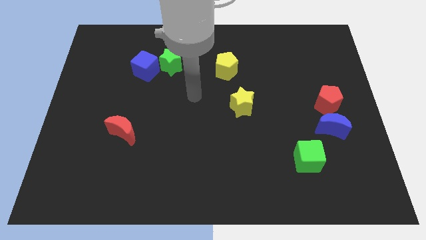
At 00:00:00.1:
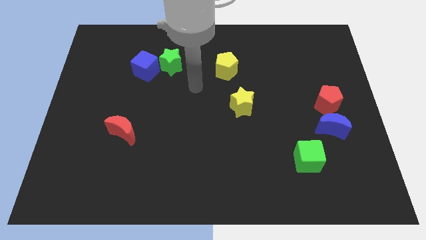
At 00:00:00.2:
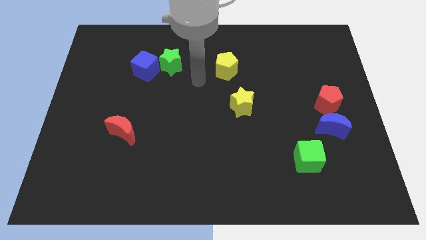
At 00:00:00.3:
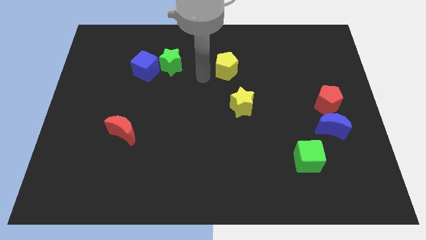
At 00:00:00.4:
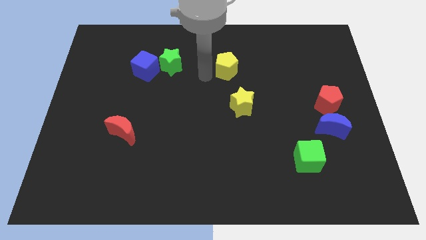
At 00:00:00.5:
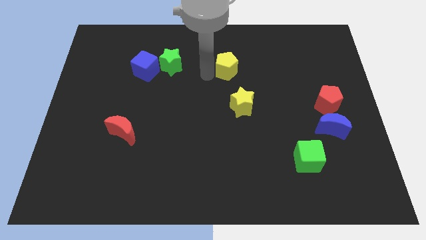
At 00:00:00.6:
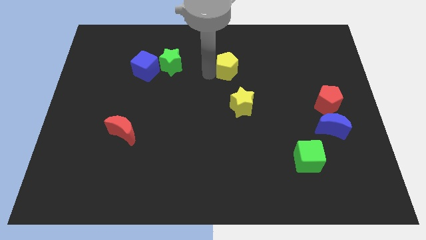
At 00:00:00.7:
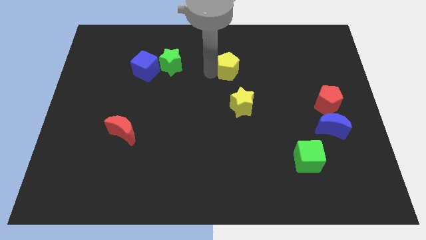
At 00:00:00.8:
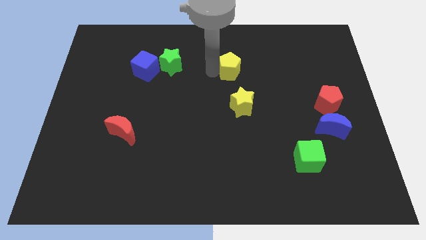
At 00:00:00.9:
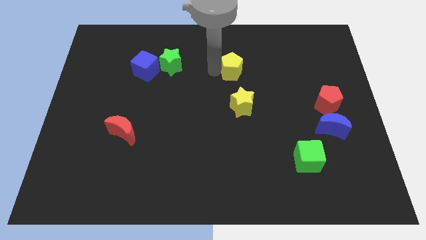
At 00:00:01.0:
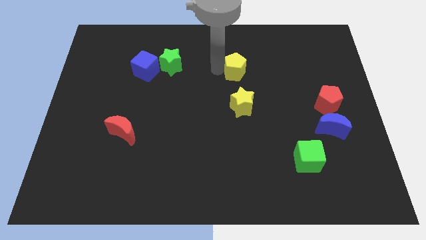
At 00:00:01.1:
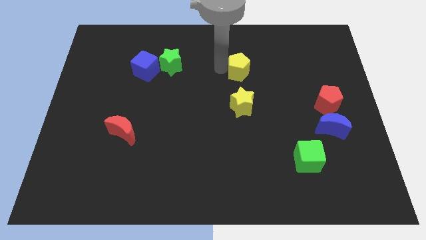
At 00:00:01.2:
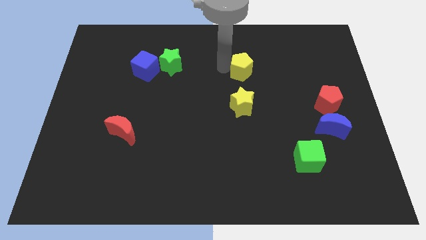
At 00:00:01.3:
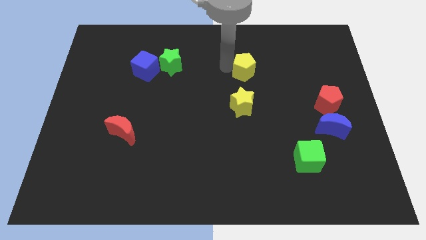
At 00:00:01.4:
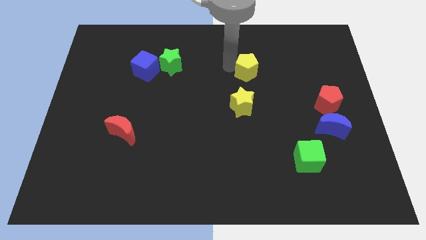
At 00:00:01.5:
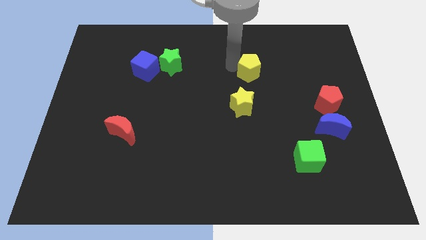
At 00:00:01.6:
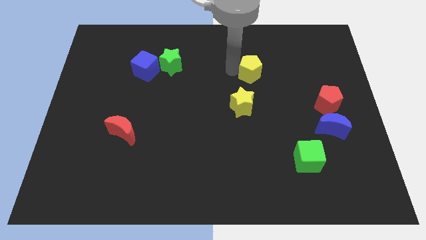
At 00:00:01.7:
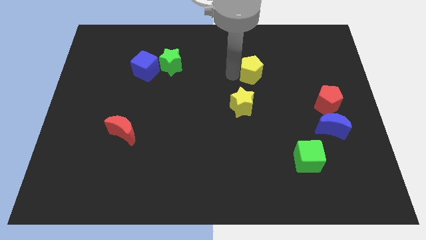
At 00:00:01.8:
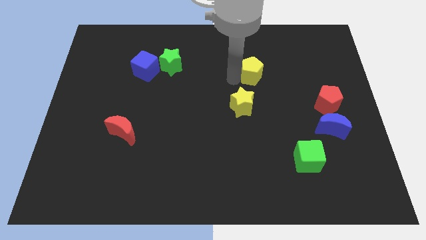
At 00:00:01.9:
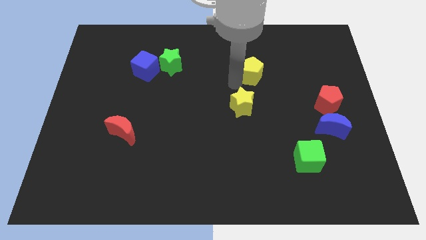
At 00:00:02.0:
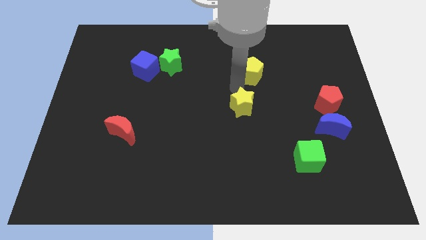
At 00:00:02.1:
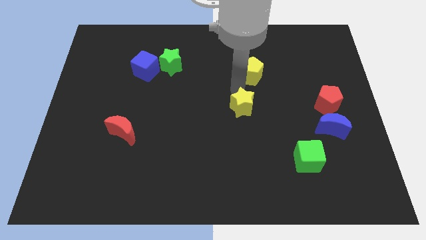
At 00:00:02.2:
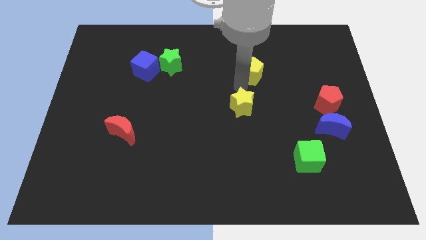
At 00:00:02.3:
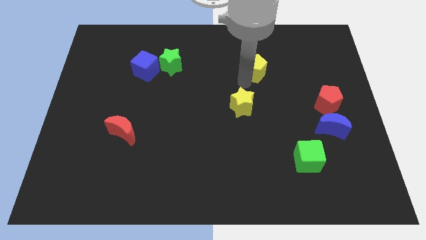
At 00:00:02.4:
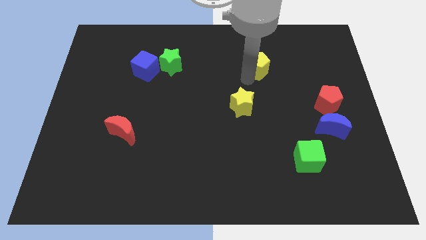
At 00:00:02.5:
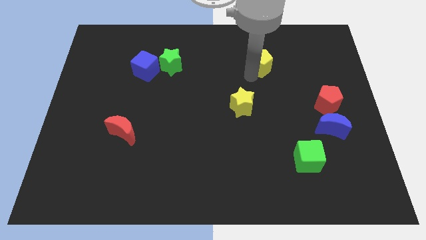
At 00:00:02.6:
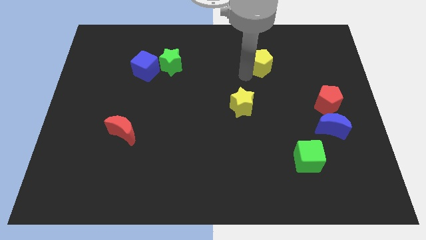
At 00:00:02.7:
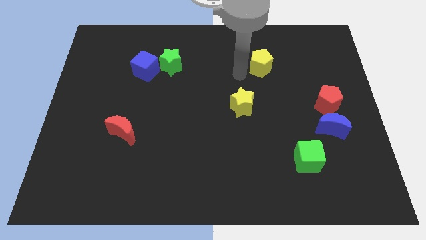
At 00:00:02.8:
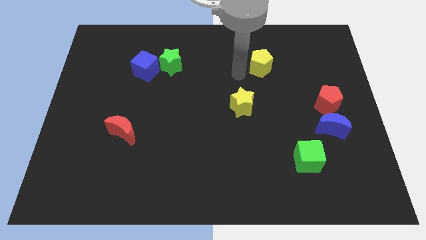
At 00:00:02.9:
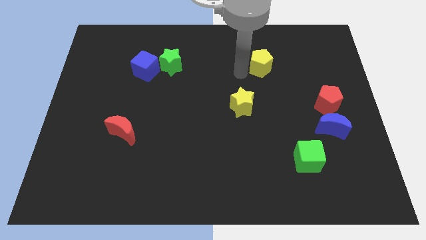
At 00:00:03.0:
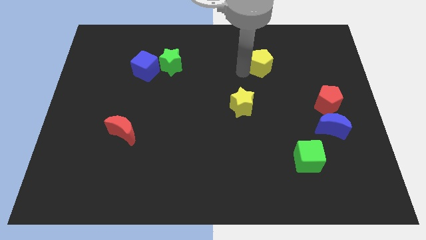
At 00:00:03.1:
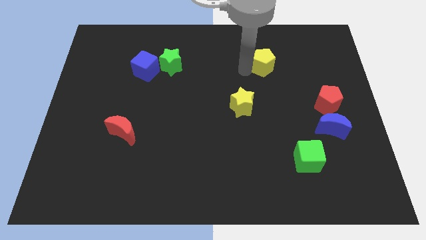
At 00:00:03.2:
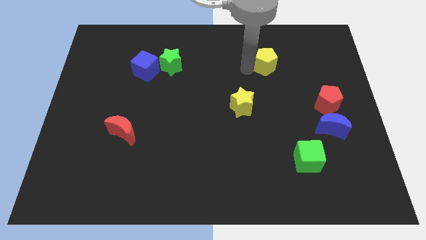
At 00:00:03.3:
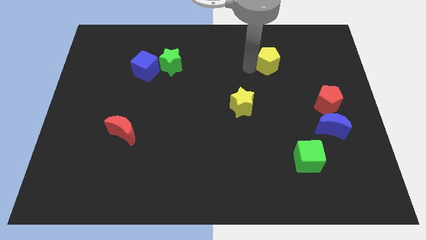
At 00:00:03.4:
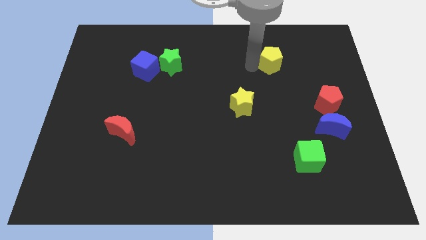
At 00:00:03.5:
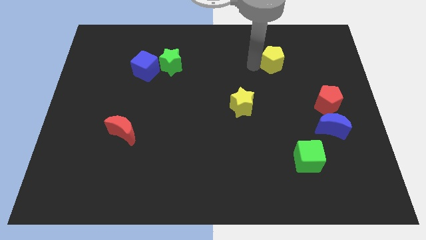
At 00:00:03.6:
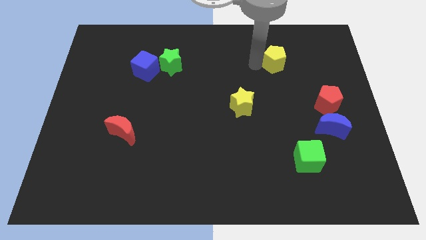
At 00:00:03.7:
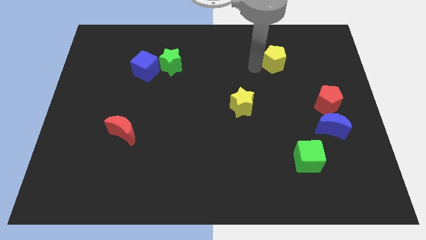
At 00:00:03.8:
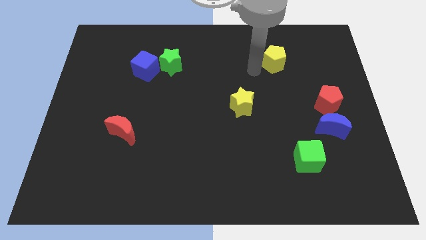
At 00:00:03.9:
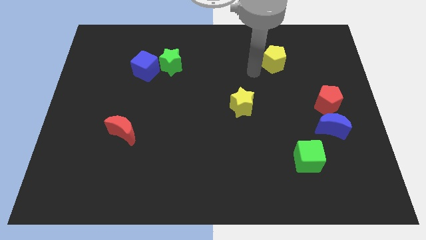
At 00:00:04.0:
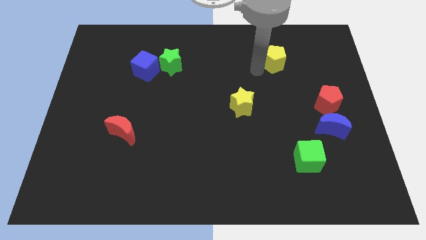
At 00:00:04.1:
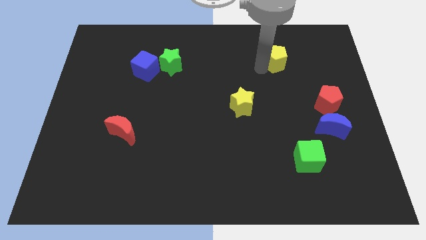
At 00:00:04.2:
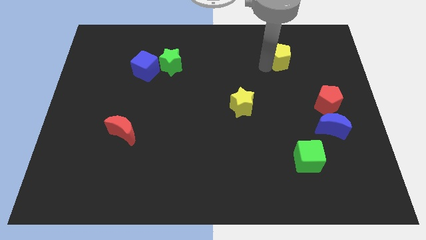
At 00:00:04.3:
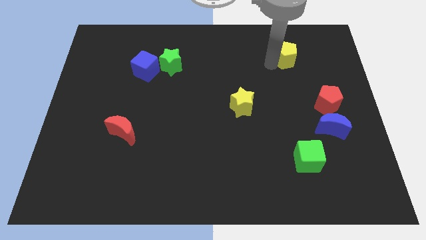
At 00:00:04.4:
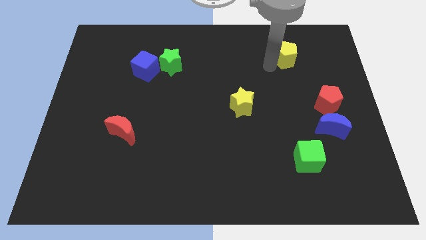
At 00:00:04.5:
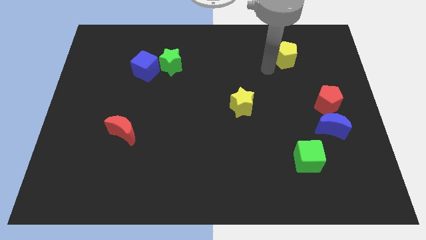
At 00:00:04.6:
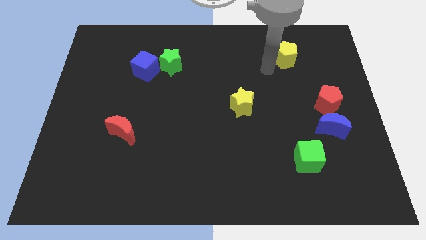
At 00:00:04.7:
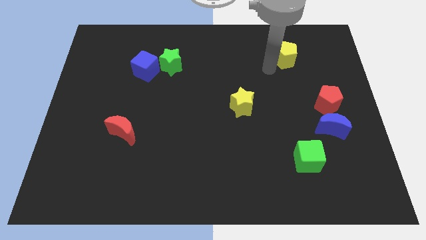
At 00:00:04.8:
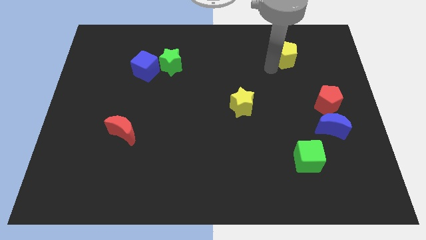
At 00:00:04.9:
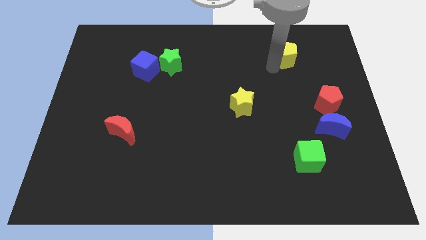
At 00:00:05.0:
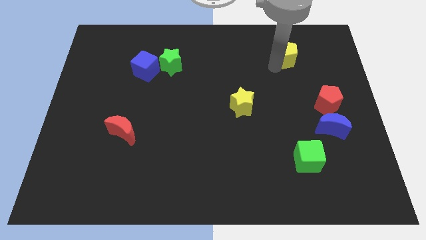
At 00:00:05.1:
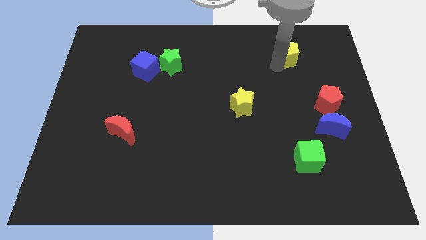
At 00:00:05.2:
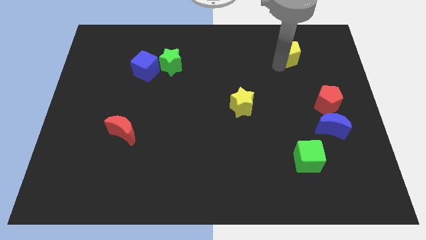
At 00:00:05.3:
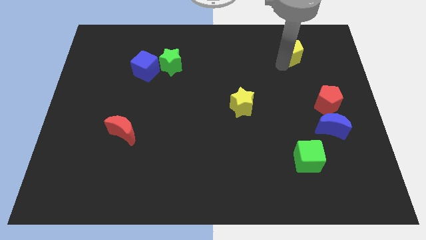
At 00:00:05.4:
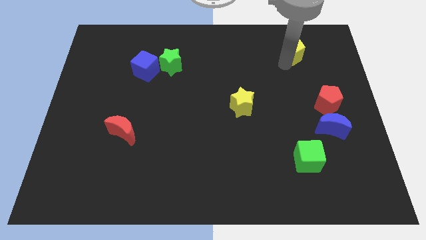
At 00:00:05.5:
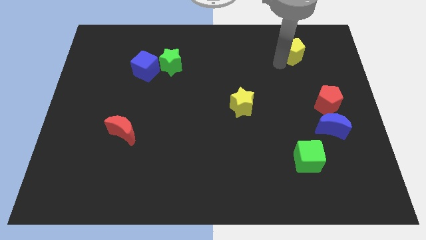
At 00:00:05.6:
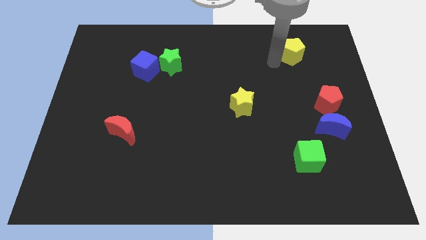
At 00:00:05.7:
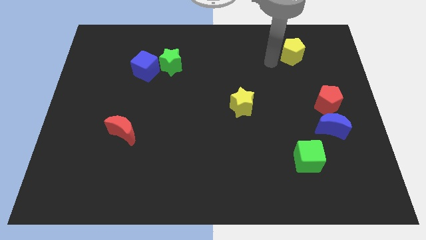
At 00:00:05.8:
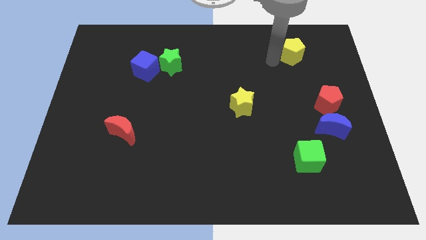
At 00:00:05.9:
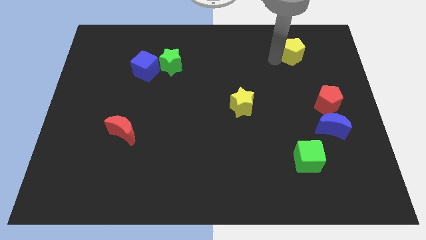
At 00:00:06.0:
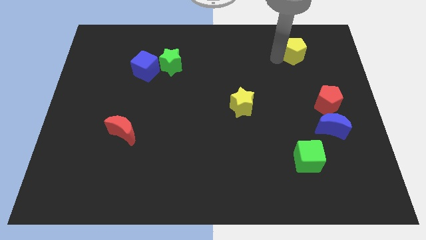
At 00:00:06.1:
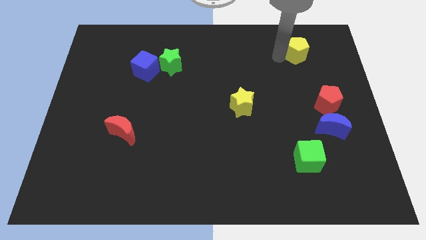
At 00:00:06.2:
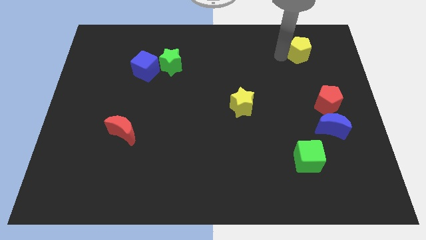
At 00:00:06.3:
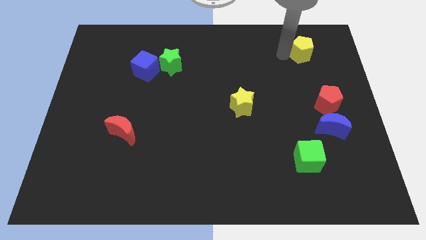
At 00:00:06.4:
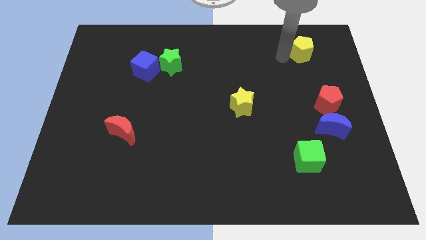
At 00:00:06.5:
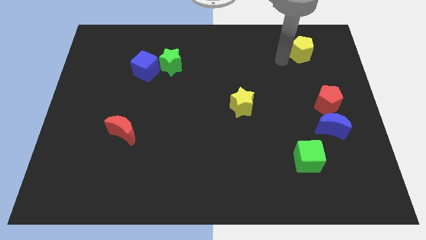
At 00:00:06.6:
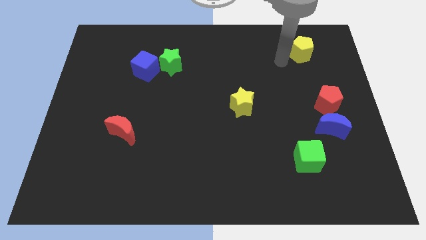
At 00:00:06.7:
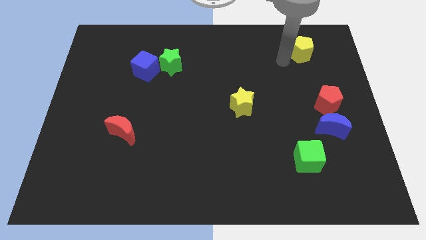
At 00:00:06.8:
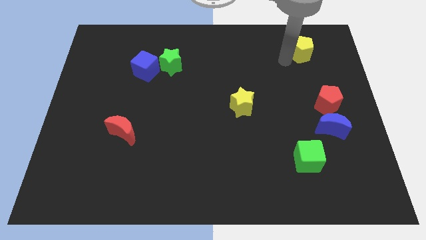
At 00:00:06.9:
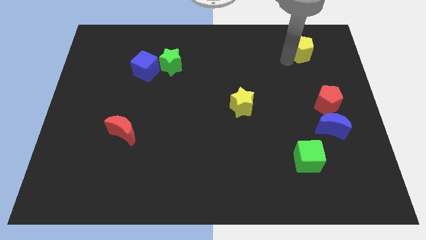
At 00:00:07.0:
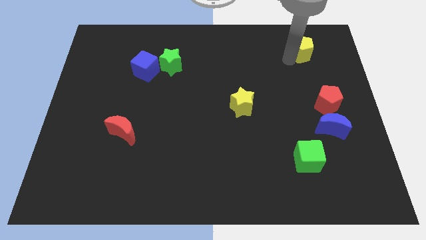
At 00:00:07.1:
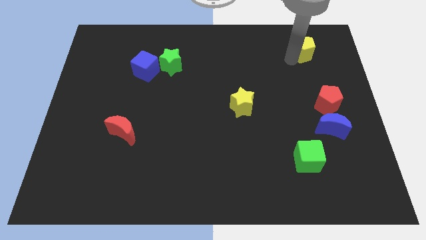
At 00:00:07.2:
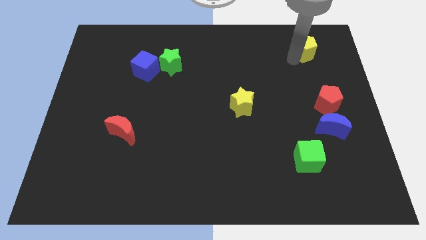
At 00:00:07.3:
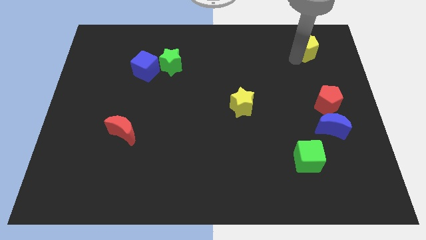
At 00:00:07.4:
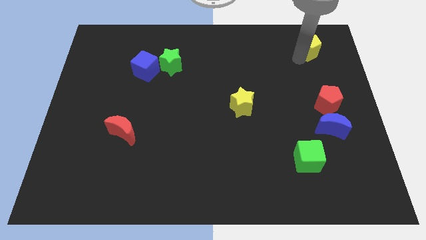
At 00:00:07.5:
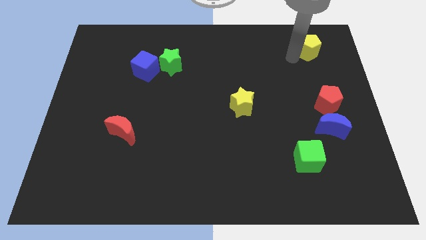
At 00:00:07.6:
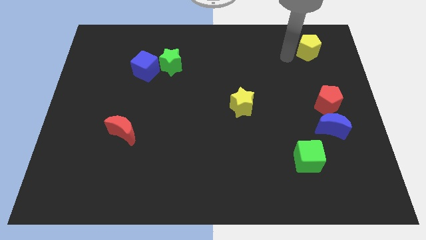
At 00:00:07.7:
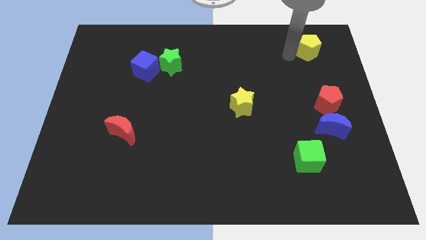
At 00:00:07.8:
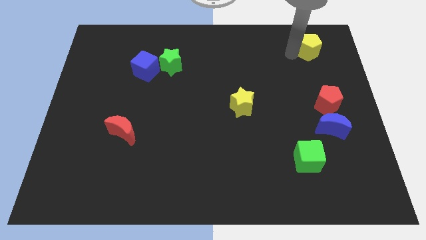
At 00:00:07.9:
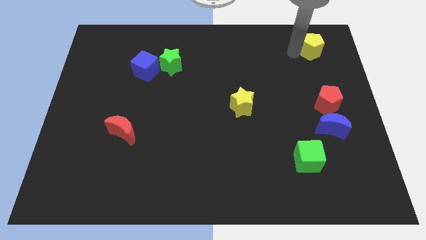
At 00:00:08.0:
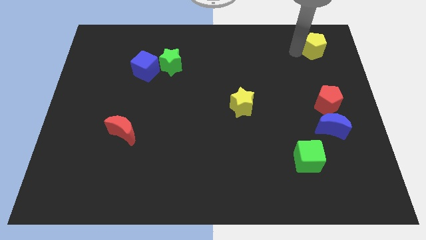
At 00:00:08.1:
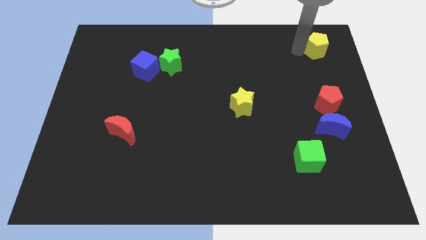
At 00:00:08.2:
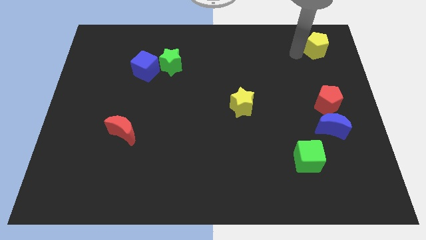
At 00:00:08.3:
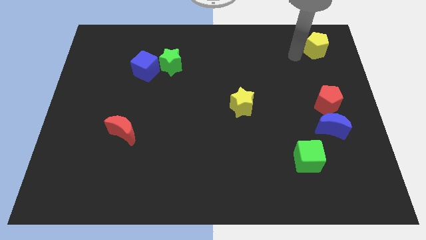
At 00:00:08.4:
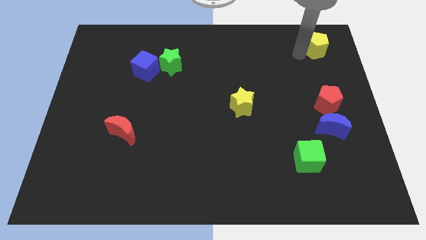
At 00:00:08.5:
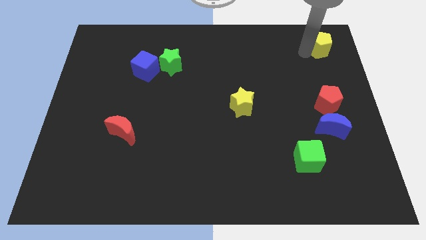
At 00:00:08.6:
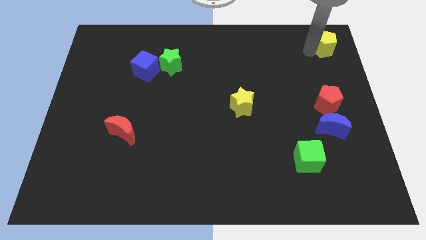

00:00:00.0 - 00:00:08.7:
move the yellow pentagon to the upper right corner
